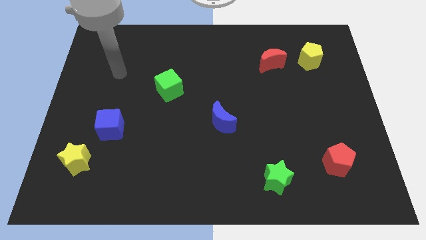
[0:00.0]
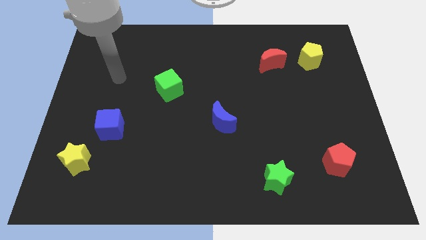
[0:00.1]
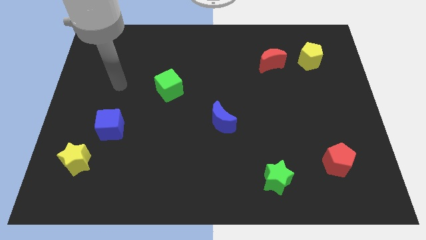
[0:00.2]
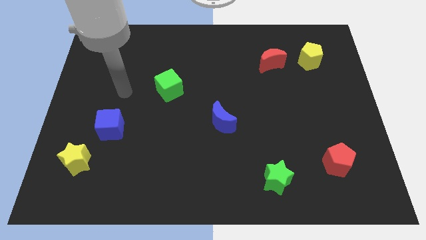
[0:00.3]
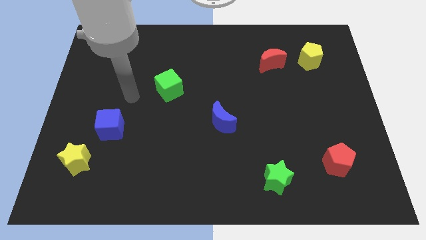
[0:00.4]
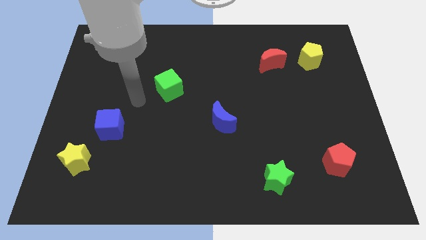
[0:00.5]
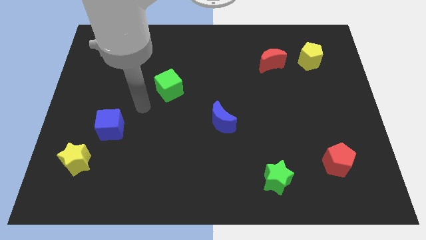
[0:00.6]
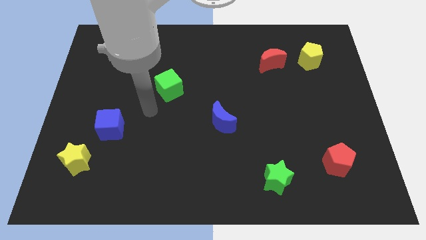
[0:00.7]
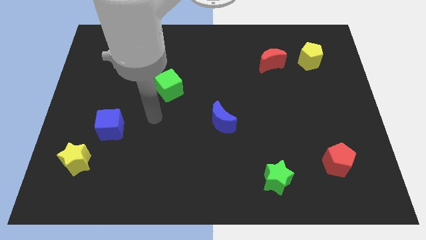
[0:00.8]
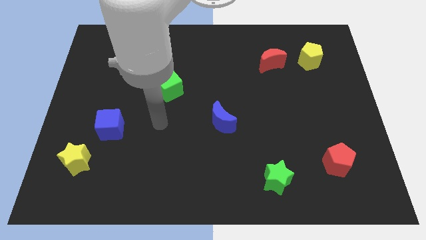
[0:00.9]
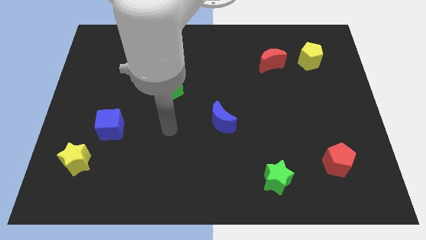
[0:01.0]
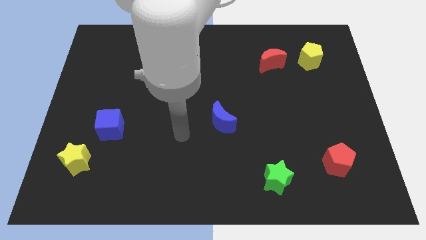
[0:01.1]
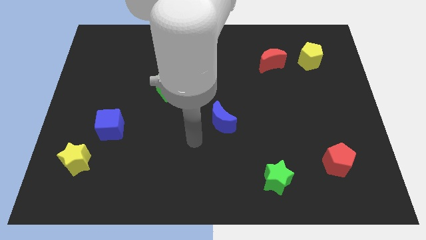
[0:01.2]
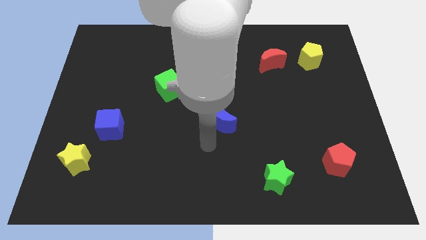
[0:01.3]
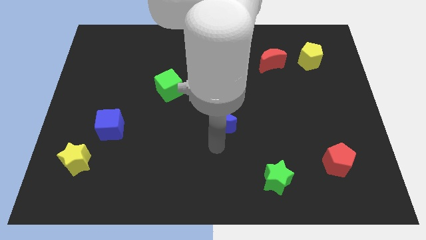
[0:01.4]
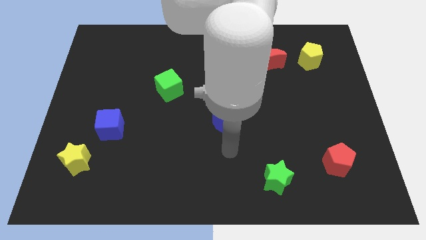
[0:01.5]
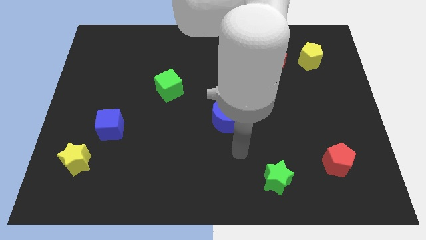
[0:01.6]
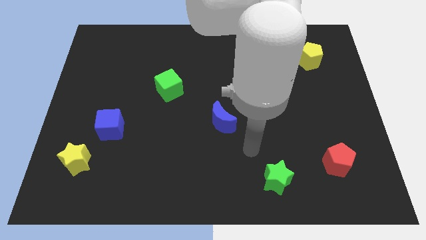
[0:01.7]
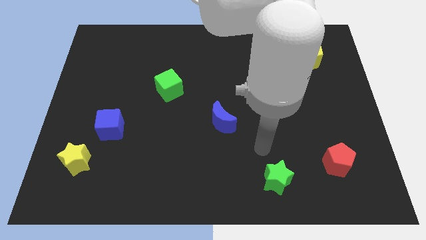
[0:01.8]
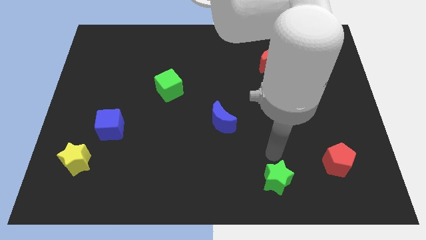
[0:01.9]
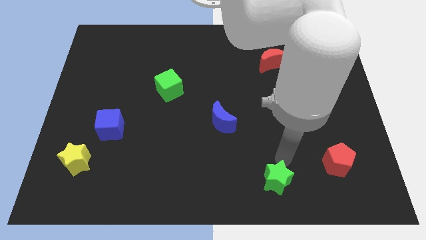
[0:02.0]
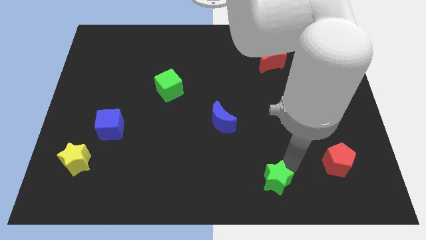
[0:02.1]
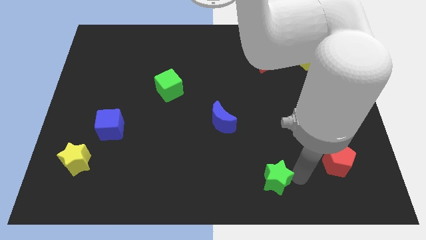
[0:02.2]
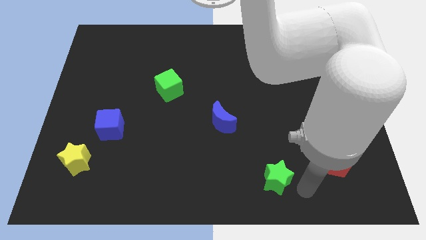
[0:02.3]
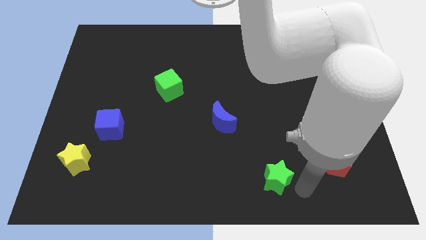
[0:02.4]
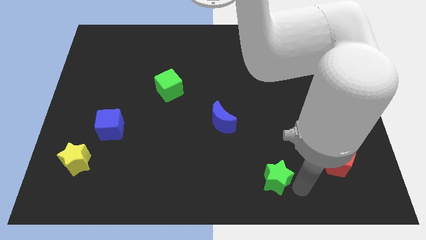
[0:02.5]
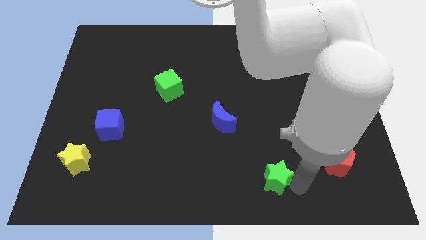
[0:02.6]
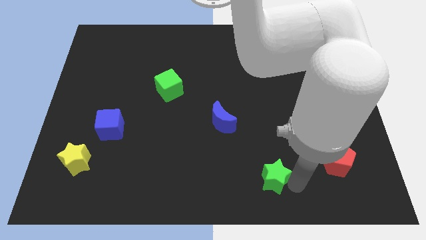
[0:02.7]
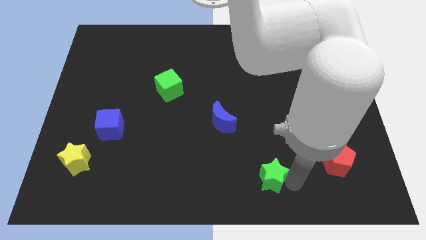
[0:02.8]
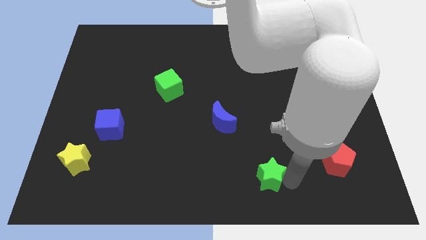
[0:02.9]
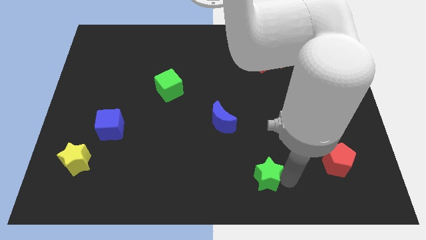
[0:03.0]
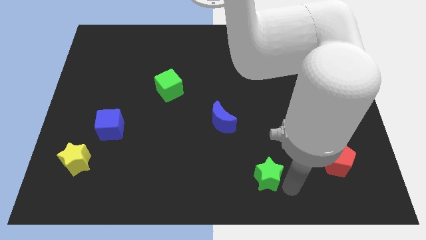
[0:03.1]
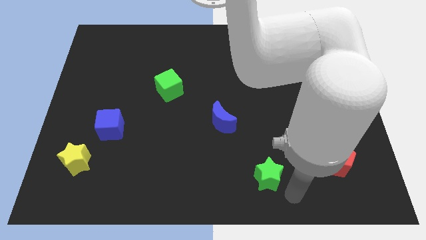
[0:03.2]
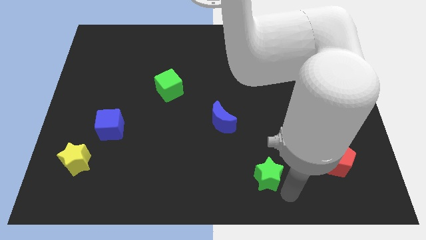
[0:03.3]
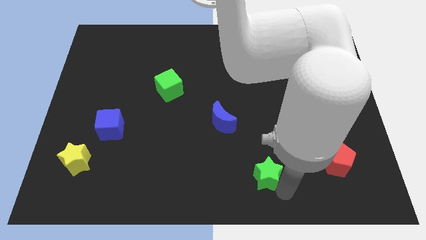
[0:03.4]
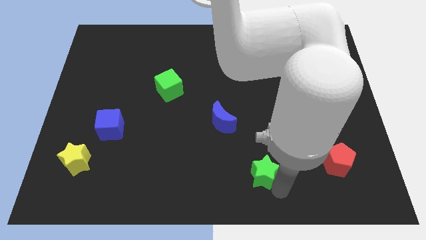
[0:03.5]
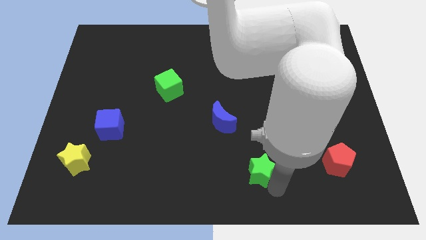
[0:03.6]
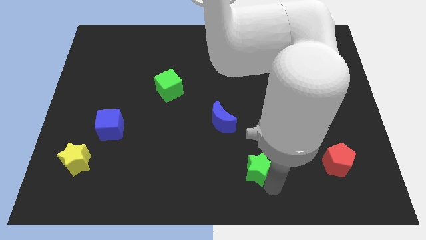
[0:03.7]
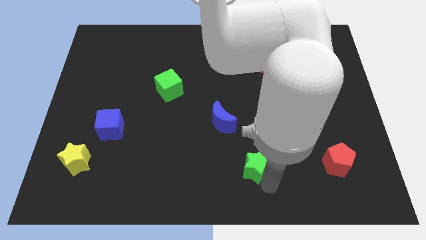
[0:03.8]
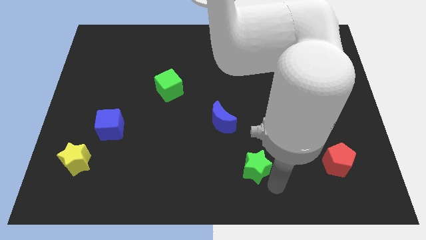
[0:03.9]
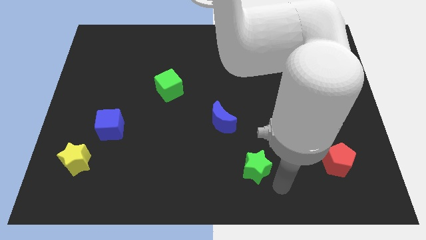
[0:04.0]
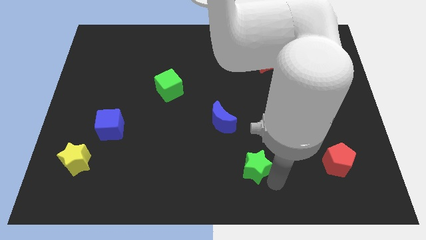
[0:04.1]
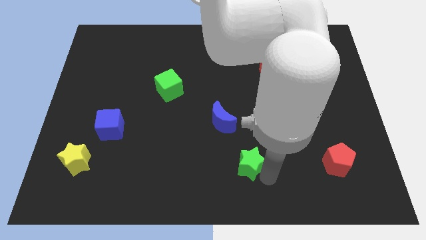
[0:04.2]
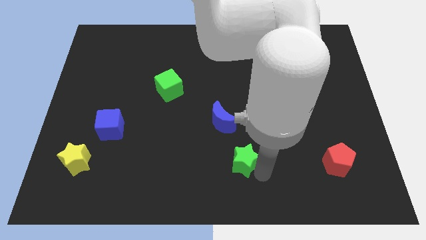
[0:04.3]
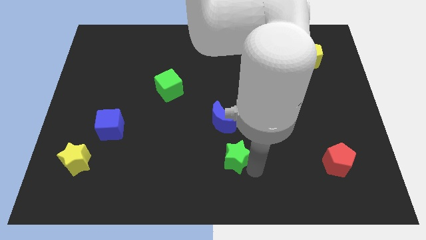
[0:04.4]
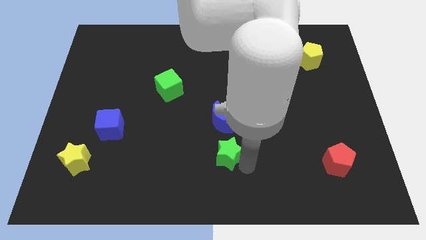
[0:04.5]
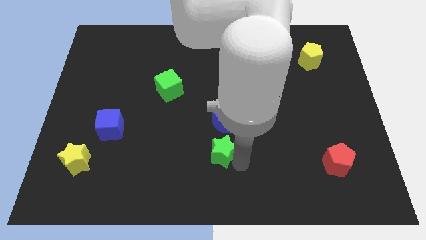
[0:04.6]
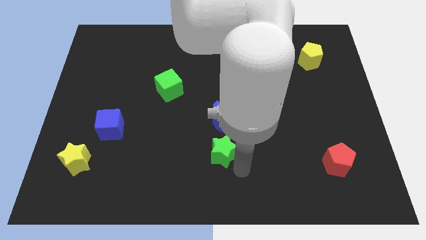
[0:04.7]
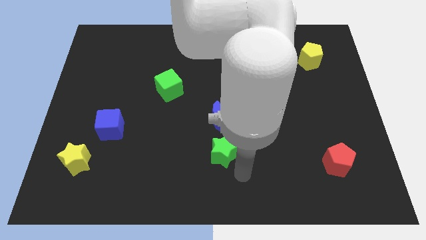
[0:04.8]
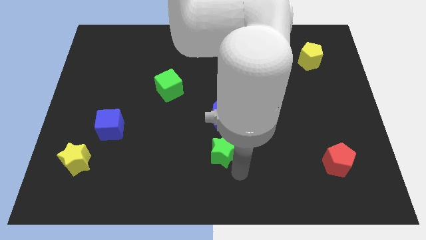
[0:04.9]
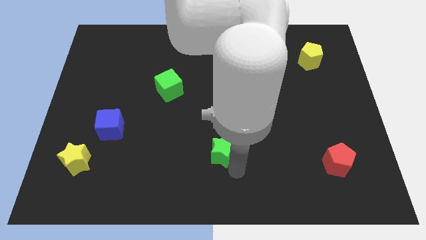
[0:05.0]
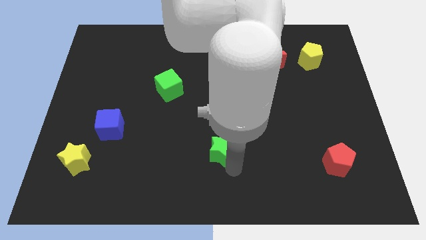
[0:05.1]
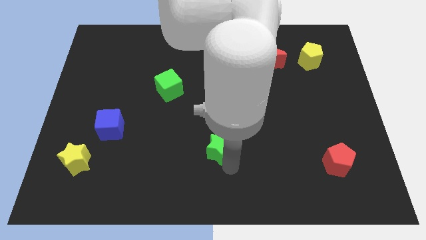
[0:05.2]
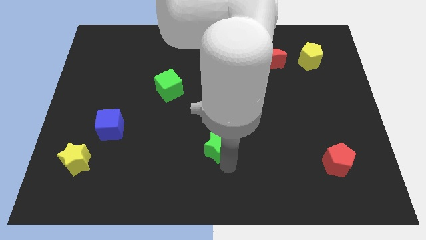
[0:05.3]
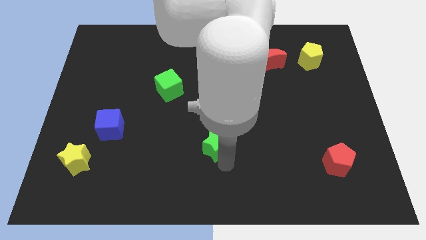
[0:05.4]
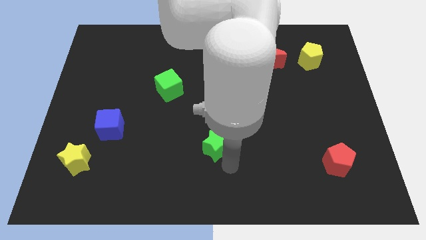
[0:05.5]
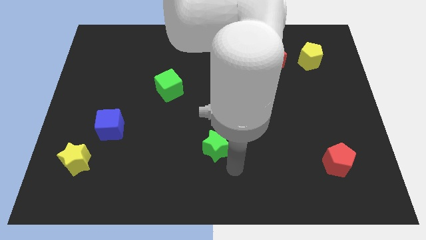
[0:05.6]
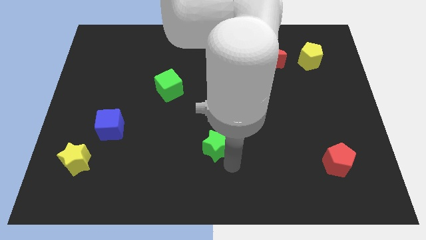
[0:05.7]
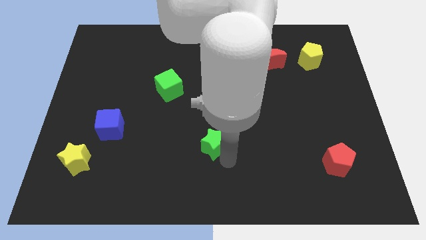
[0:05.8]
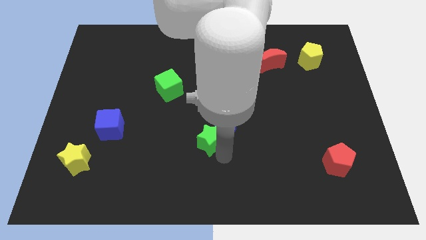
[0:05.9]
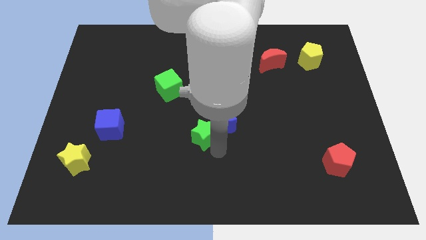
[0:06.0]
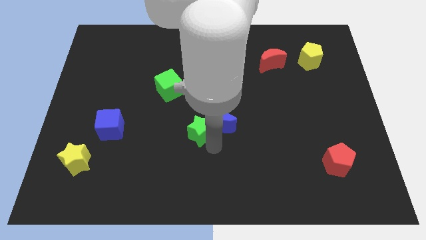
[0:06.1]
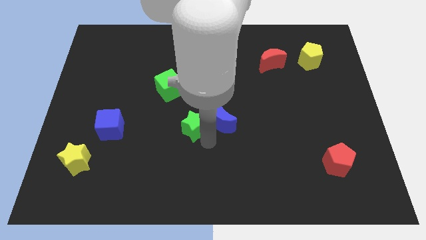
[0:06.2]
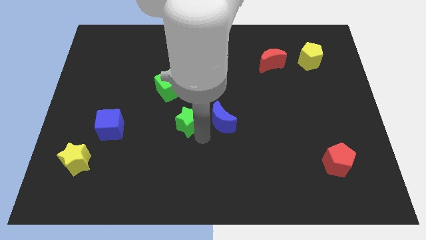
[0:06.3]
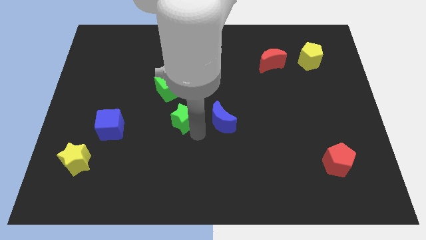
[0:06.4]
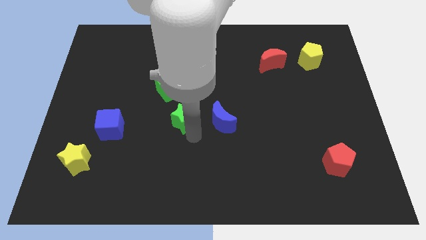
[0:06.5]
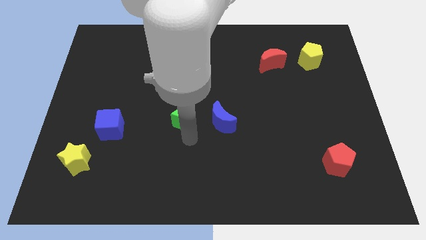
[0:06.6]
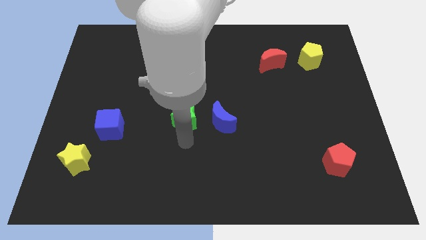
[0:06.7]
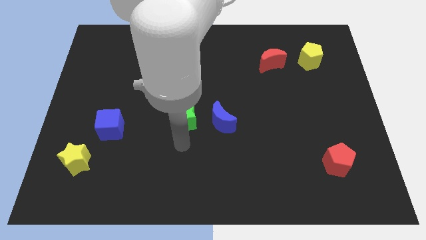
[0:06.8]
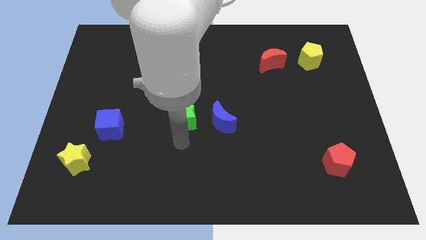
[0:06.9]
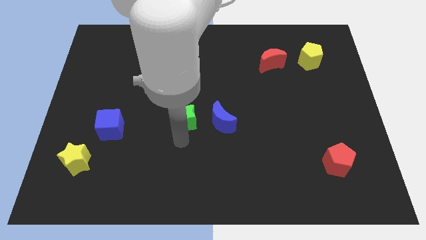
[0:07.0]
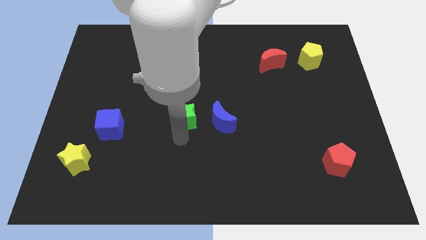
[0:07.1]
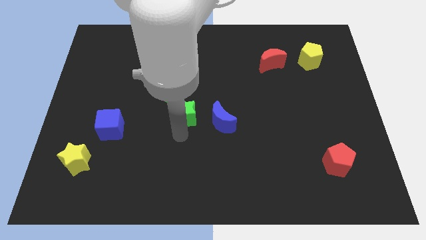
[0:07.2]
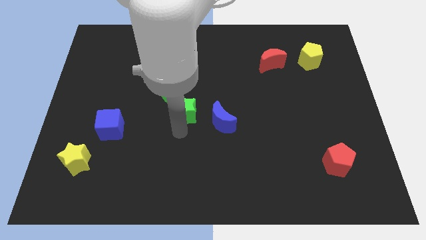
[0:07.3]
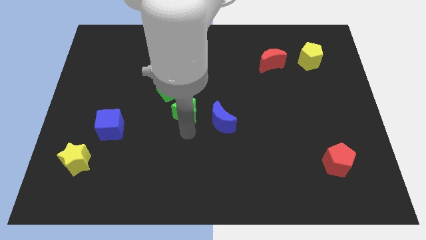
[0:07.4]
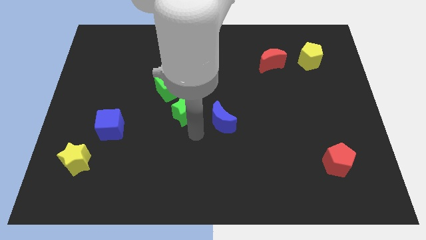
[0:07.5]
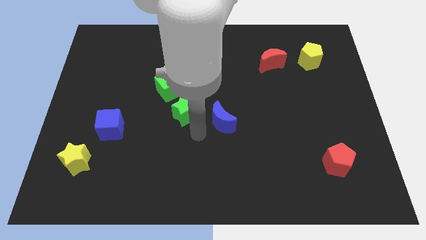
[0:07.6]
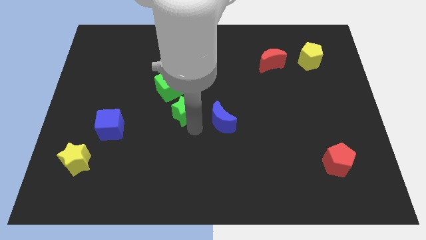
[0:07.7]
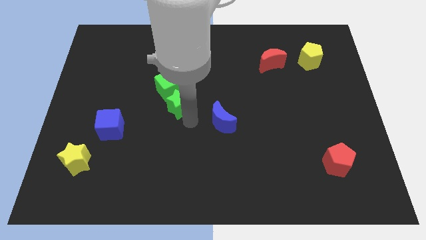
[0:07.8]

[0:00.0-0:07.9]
push the green star to the green cube
